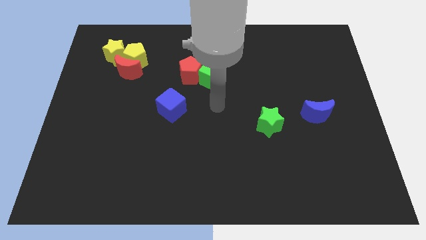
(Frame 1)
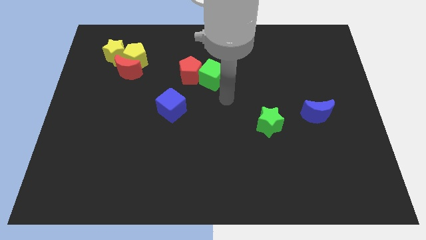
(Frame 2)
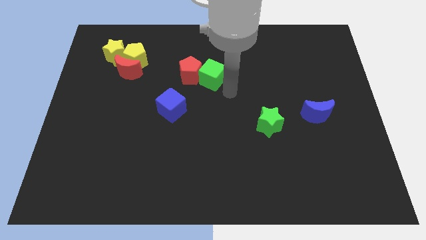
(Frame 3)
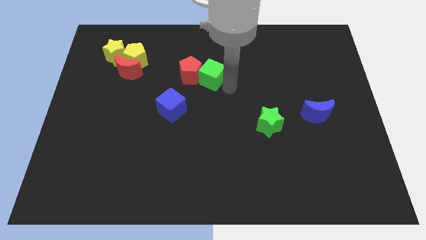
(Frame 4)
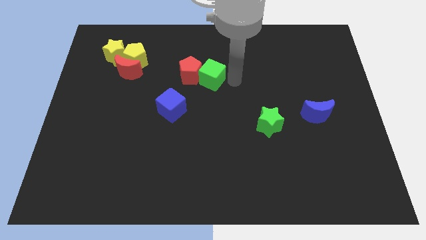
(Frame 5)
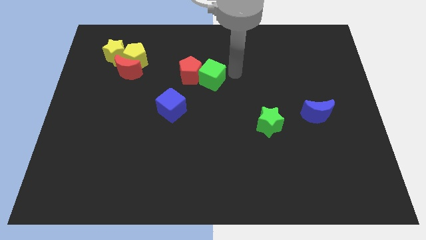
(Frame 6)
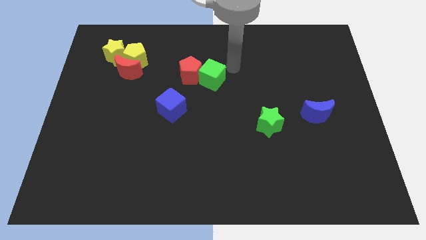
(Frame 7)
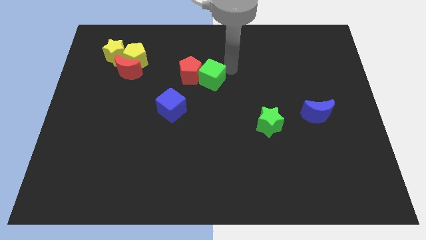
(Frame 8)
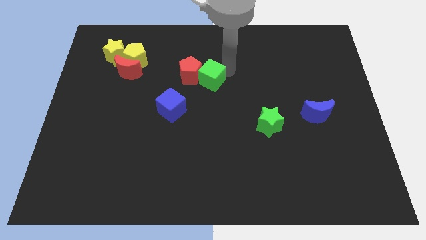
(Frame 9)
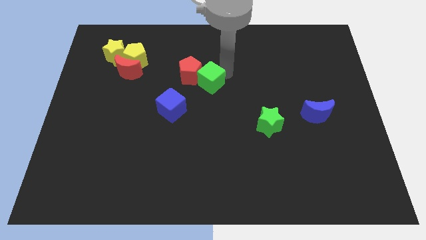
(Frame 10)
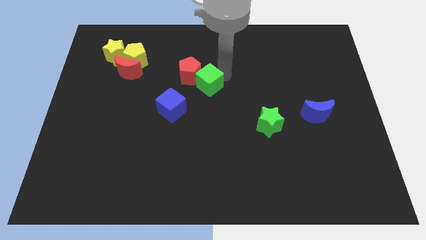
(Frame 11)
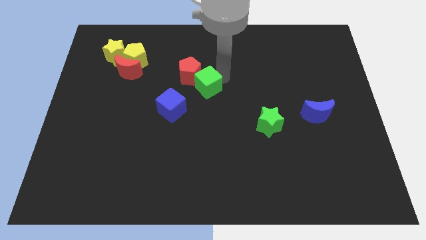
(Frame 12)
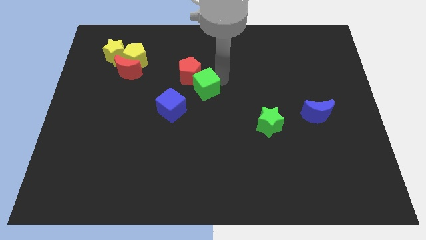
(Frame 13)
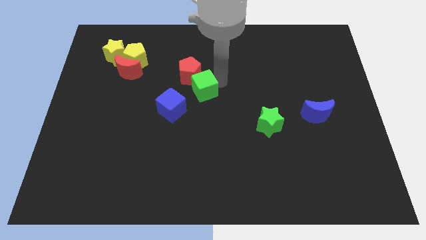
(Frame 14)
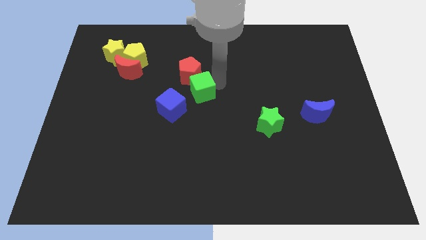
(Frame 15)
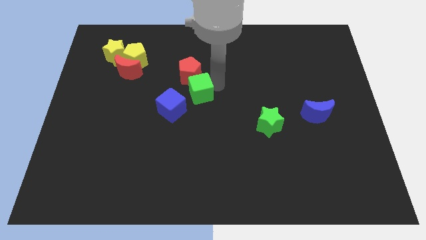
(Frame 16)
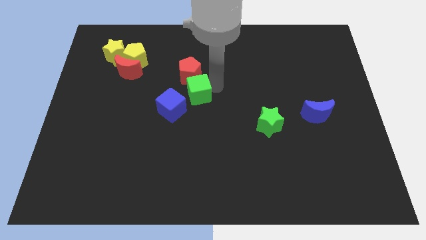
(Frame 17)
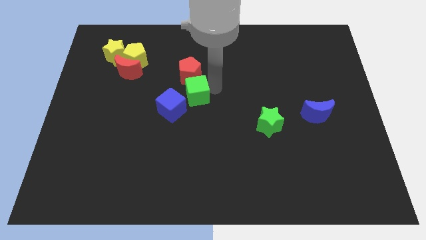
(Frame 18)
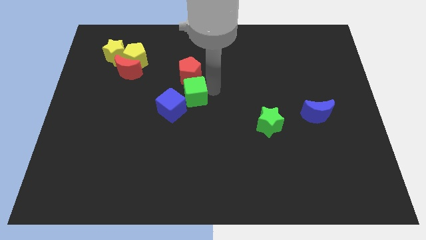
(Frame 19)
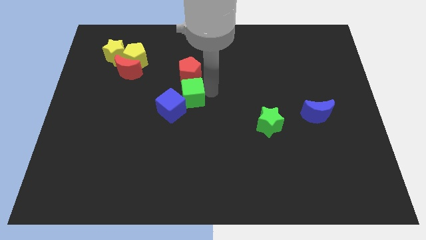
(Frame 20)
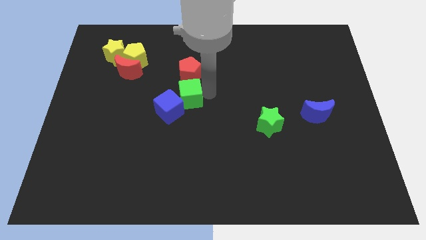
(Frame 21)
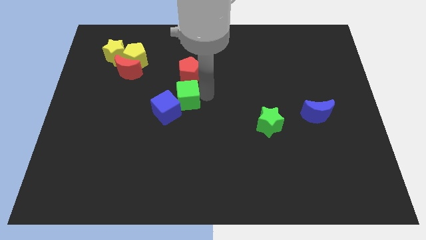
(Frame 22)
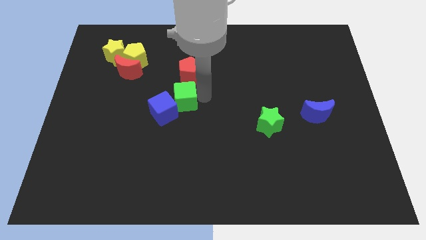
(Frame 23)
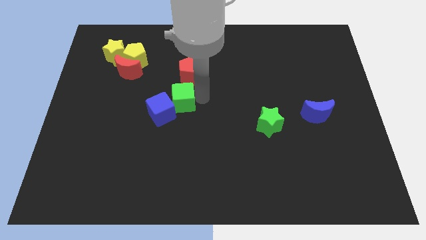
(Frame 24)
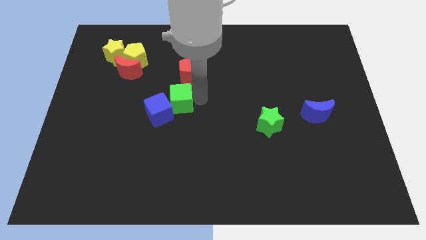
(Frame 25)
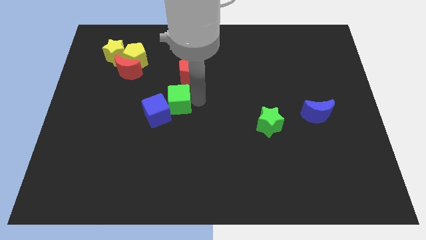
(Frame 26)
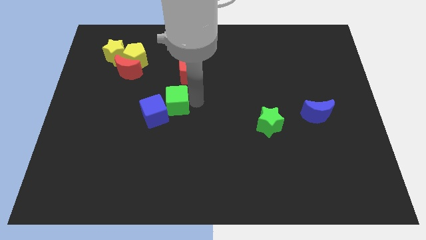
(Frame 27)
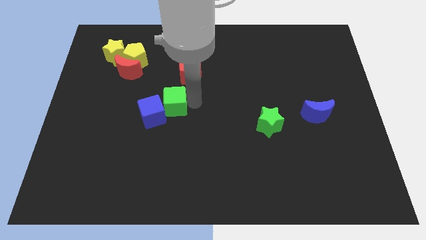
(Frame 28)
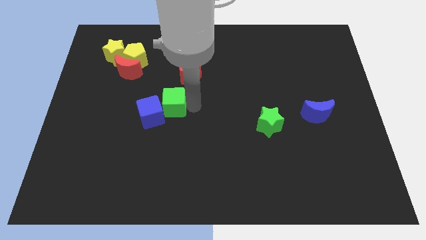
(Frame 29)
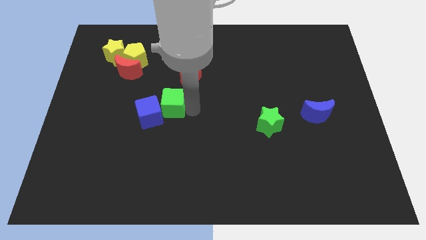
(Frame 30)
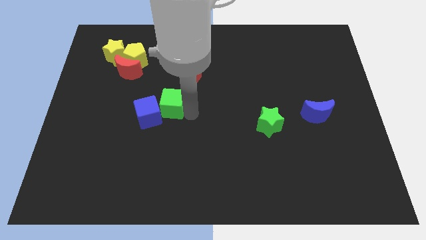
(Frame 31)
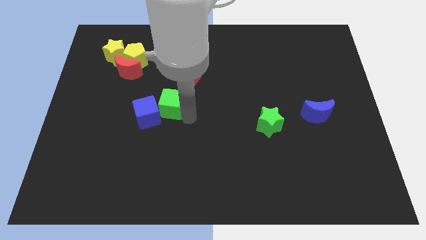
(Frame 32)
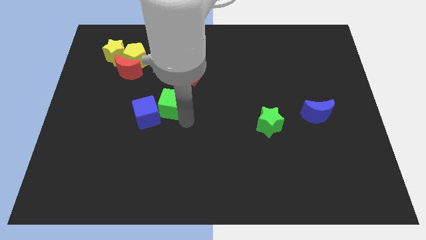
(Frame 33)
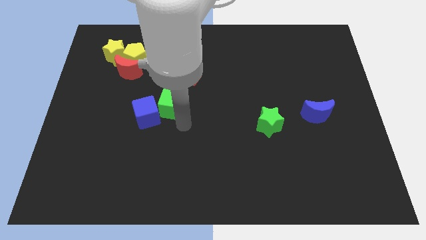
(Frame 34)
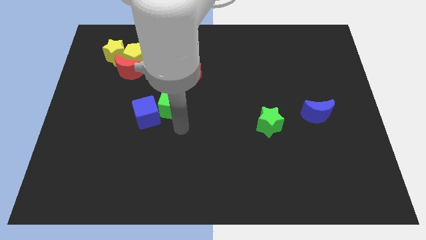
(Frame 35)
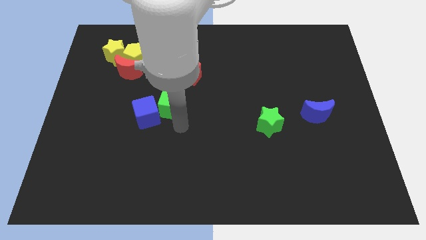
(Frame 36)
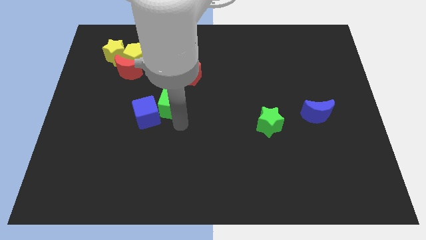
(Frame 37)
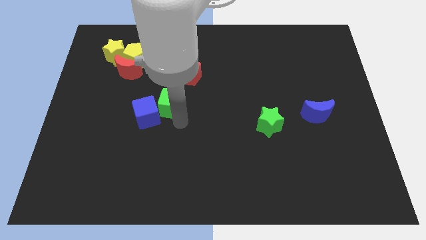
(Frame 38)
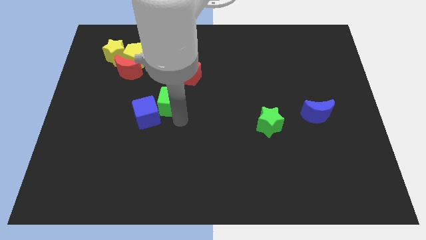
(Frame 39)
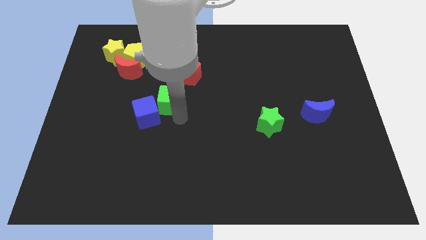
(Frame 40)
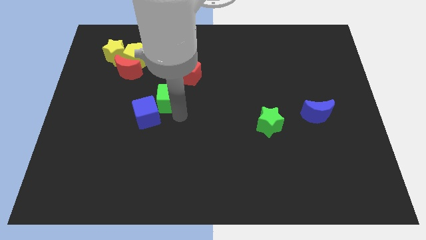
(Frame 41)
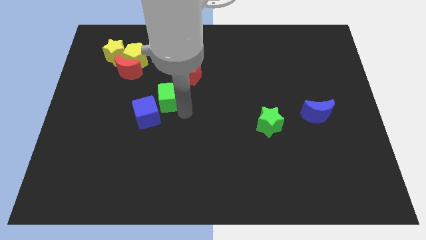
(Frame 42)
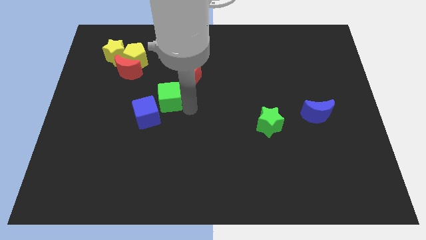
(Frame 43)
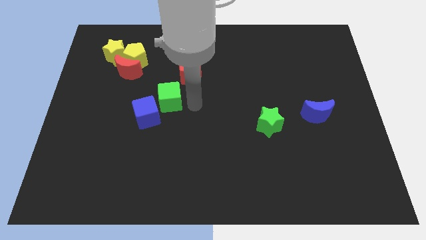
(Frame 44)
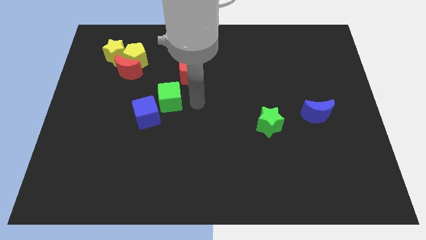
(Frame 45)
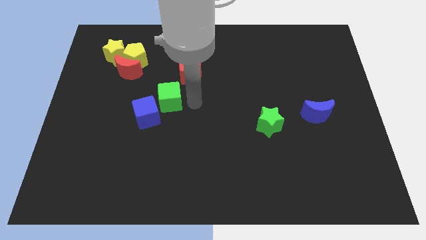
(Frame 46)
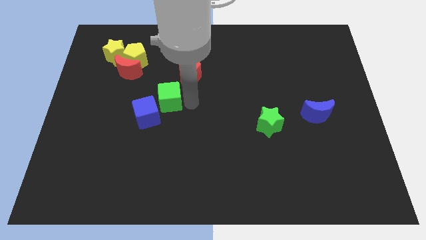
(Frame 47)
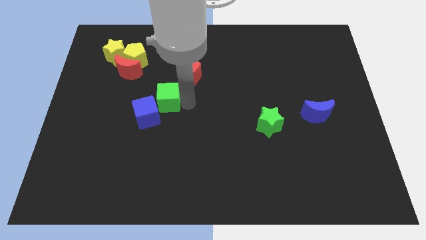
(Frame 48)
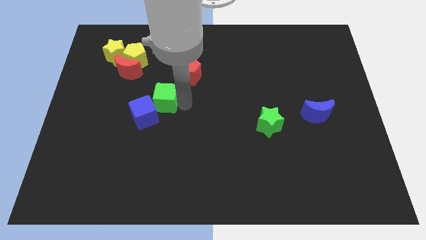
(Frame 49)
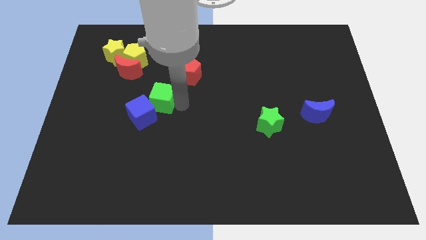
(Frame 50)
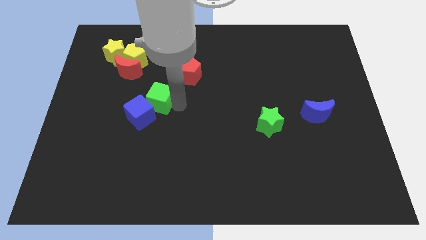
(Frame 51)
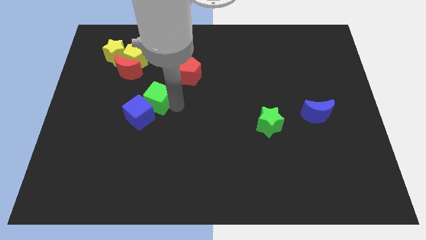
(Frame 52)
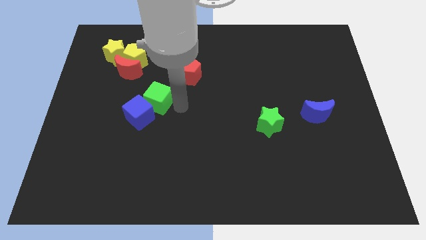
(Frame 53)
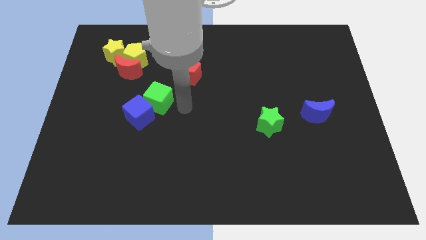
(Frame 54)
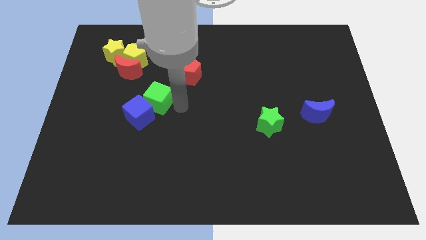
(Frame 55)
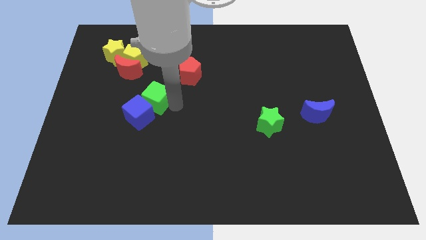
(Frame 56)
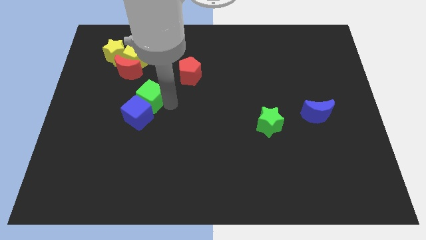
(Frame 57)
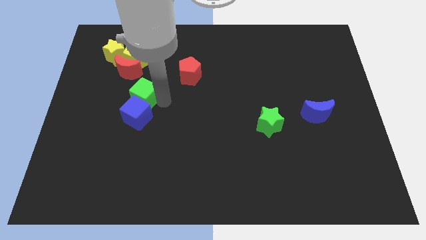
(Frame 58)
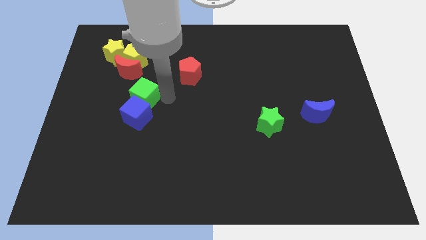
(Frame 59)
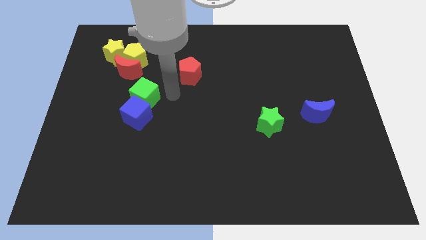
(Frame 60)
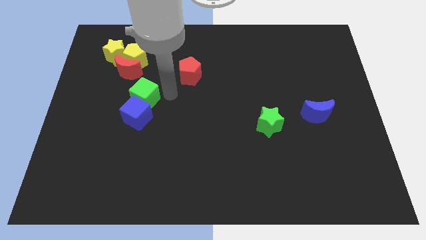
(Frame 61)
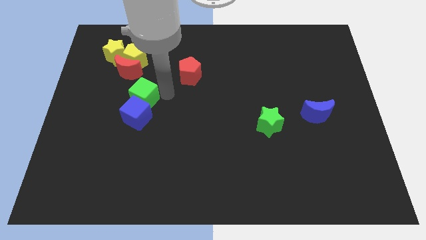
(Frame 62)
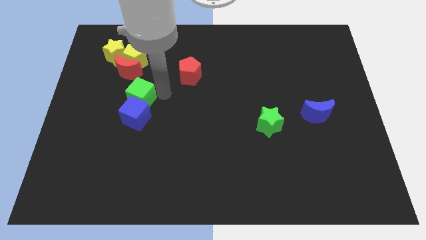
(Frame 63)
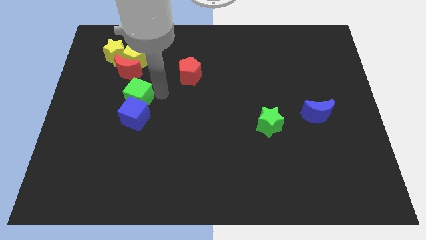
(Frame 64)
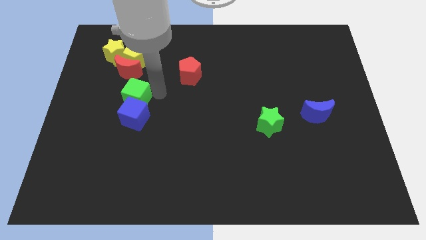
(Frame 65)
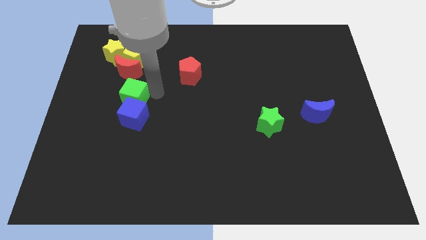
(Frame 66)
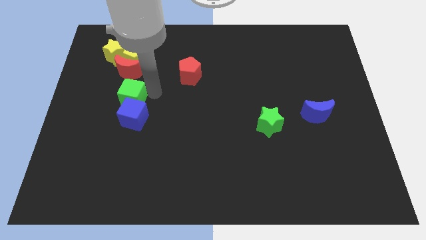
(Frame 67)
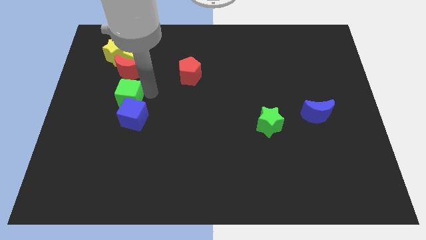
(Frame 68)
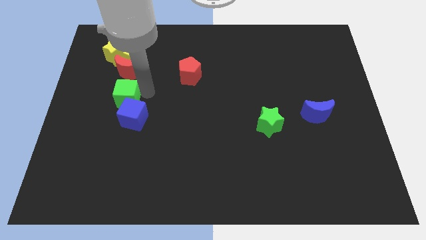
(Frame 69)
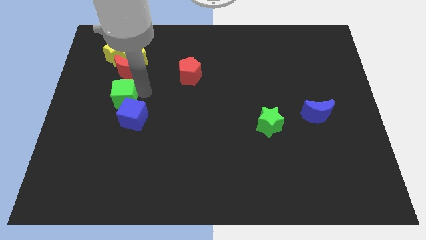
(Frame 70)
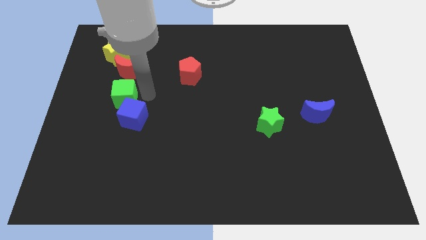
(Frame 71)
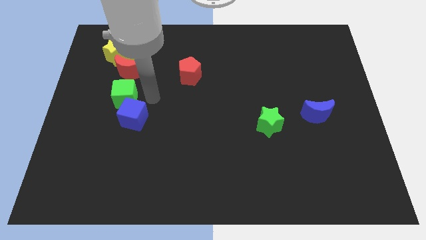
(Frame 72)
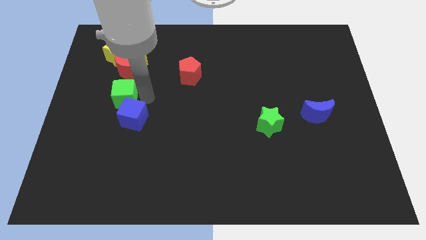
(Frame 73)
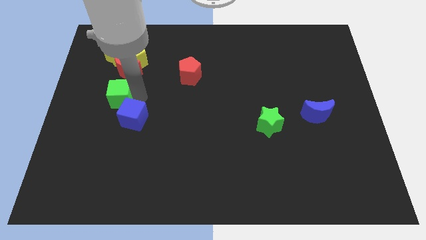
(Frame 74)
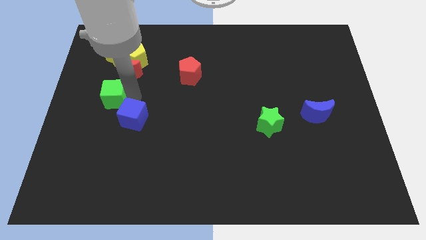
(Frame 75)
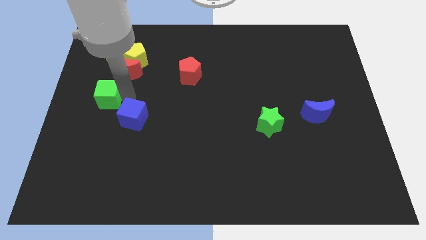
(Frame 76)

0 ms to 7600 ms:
slide the green cube to the left side
